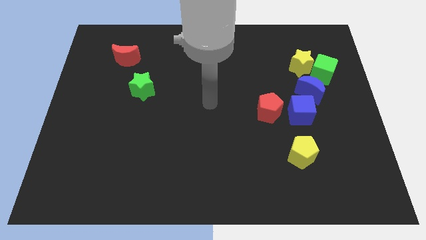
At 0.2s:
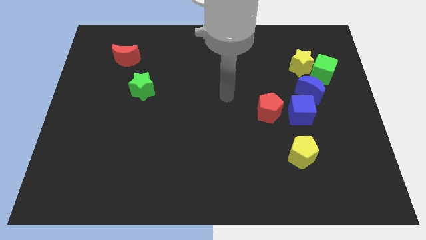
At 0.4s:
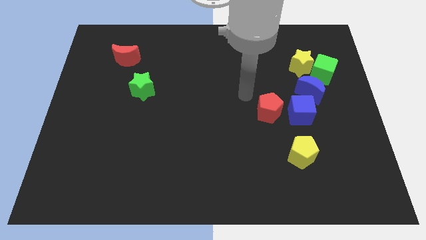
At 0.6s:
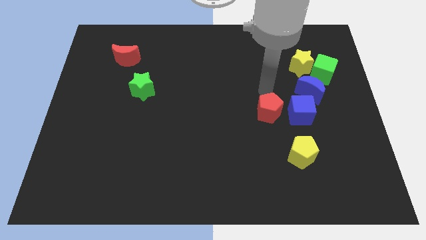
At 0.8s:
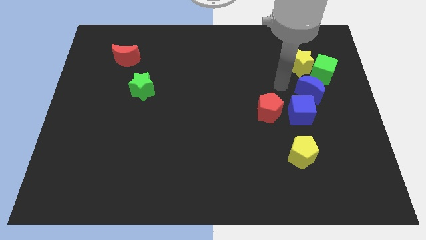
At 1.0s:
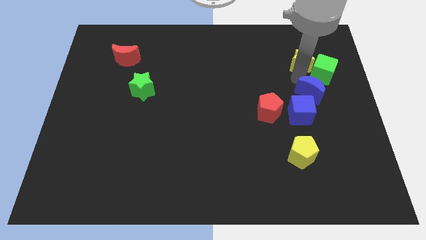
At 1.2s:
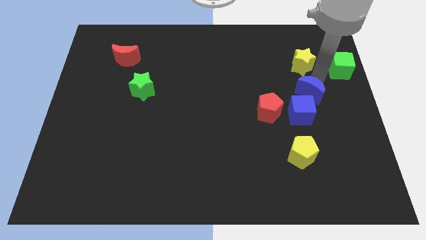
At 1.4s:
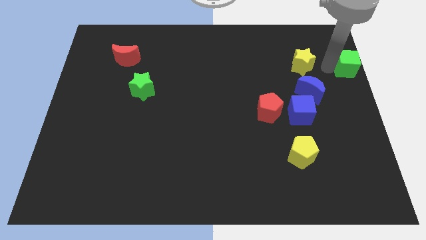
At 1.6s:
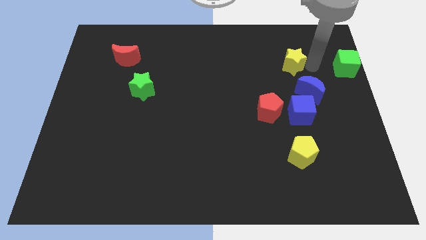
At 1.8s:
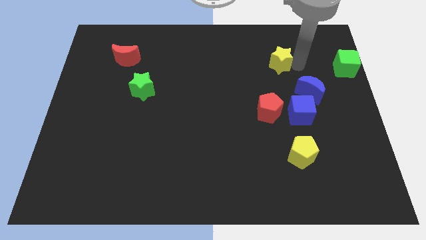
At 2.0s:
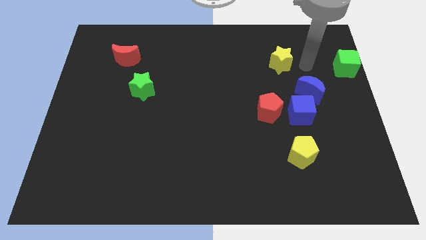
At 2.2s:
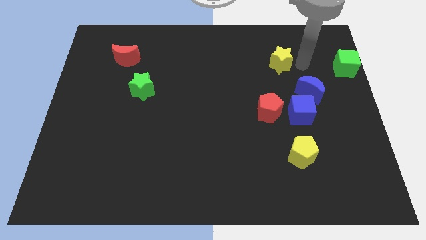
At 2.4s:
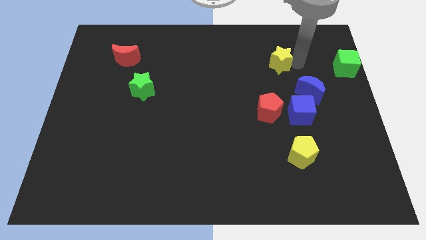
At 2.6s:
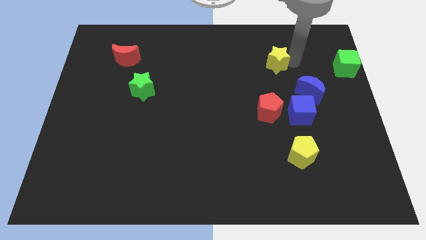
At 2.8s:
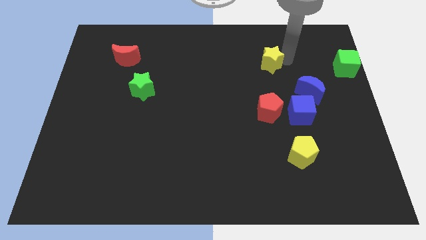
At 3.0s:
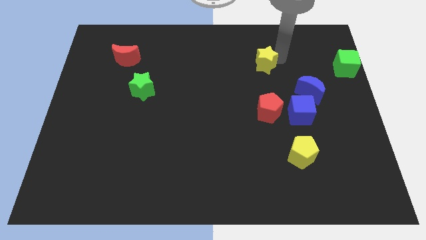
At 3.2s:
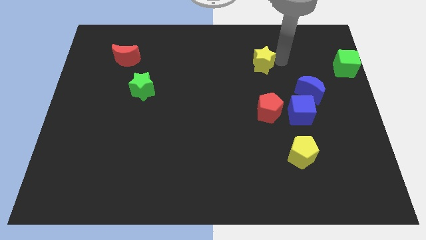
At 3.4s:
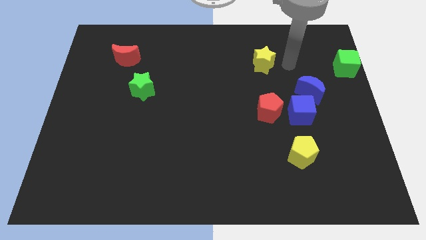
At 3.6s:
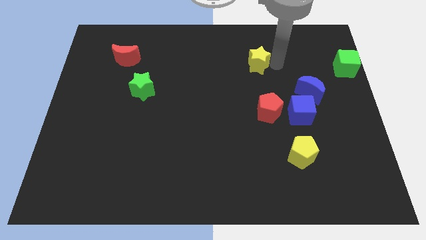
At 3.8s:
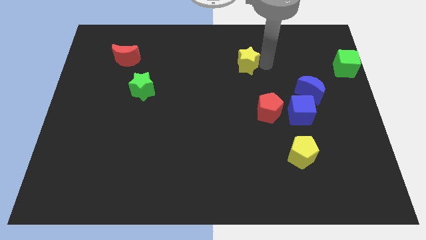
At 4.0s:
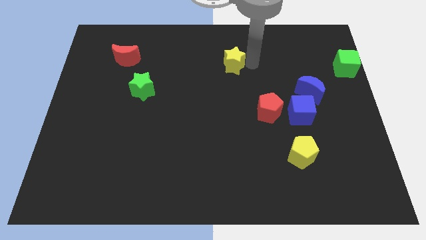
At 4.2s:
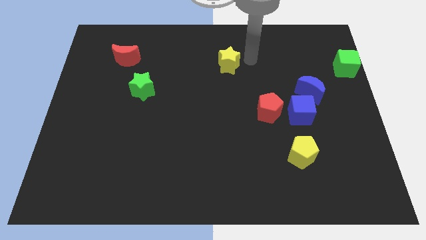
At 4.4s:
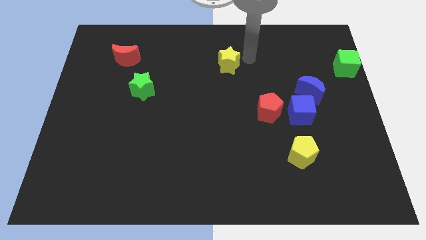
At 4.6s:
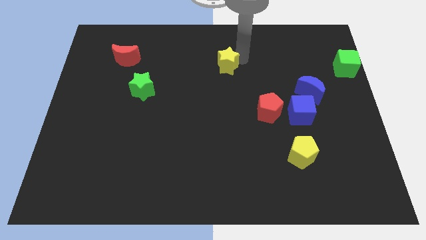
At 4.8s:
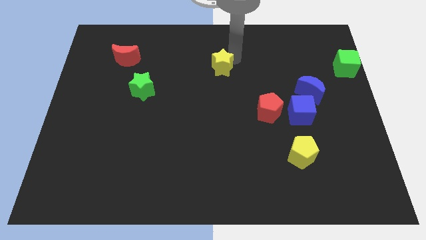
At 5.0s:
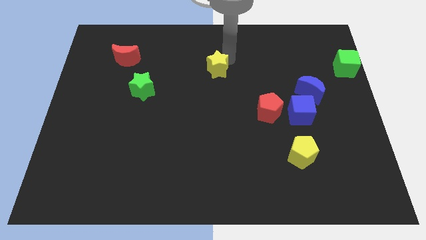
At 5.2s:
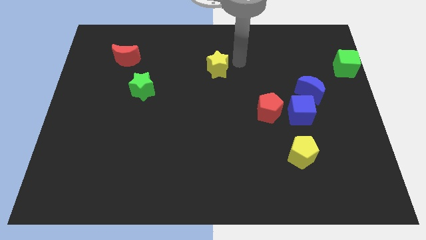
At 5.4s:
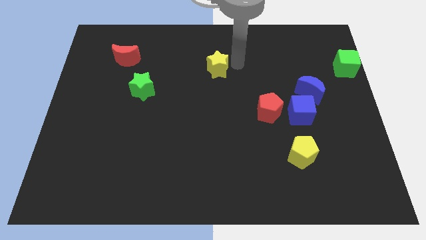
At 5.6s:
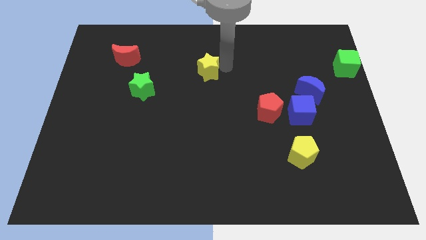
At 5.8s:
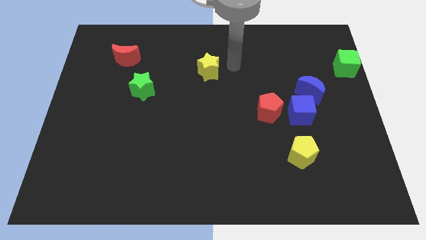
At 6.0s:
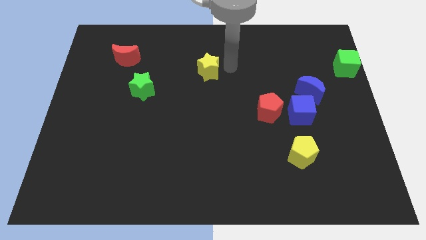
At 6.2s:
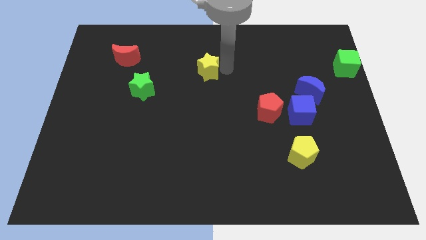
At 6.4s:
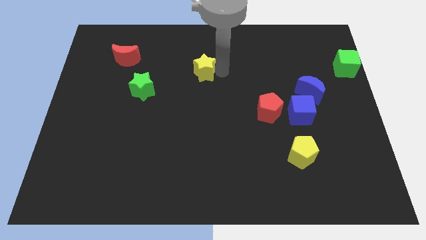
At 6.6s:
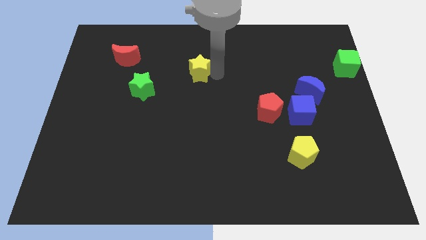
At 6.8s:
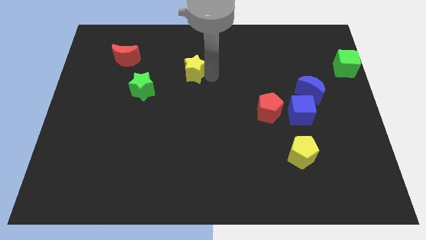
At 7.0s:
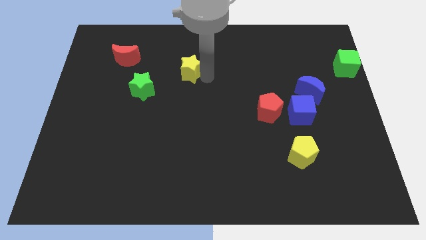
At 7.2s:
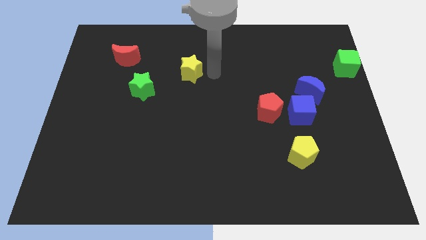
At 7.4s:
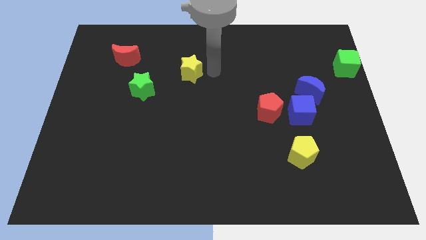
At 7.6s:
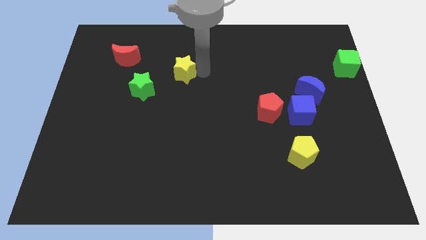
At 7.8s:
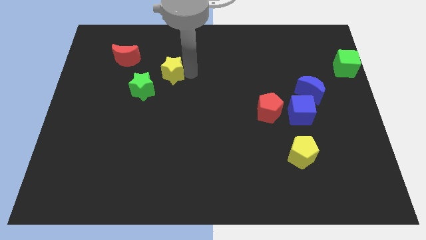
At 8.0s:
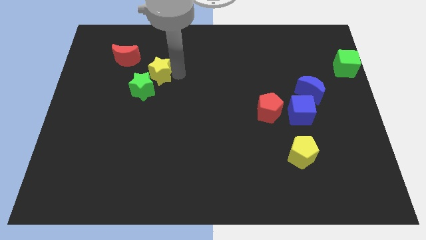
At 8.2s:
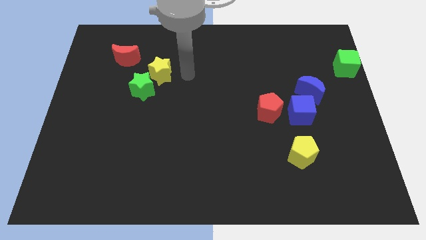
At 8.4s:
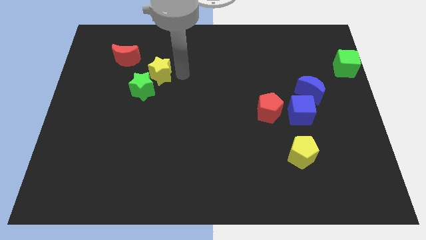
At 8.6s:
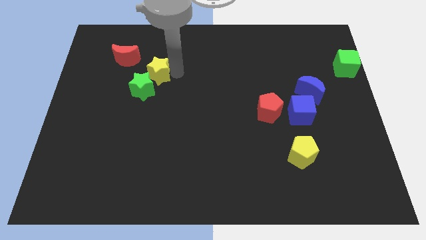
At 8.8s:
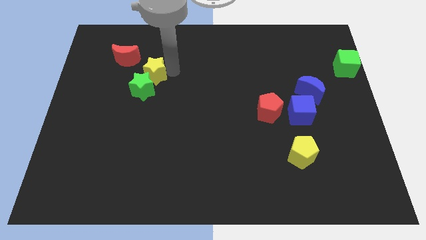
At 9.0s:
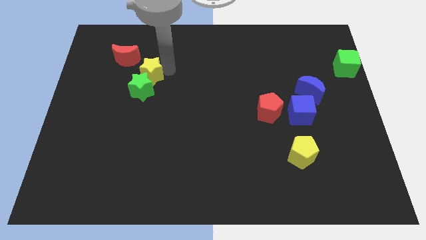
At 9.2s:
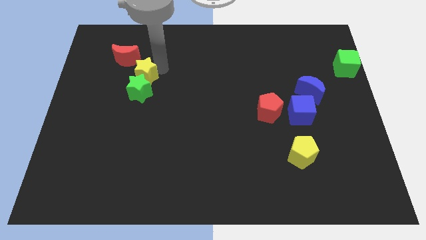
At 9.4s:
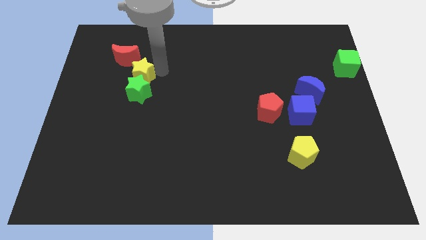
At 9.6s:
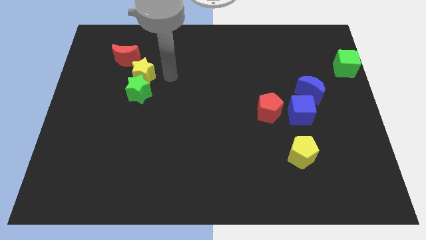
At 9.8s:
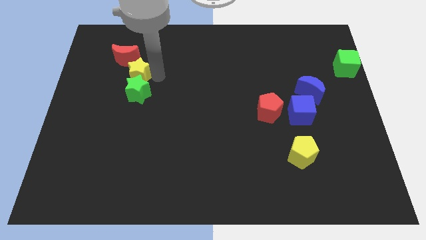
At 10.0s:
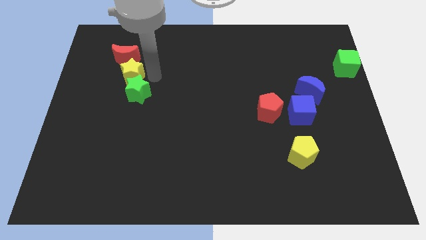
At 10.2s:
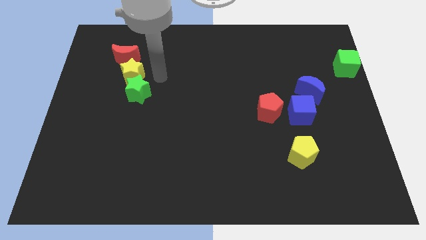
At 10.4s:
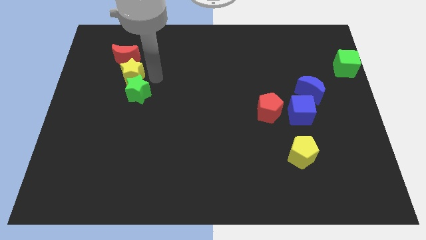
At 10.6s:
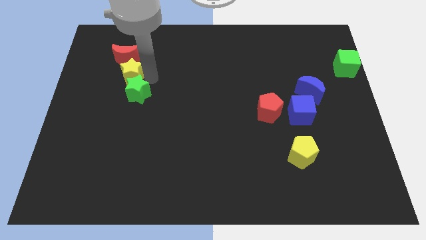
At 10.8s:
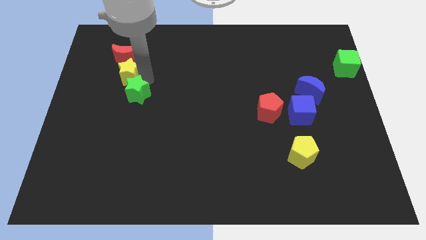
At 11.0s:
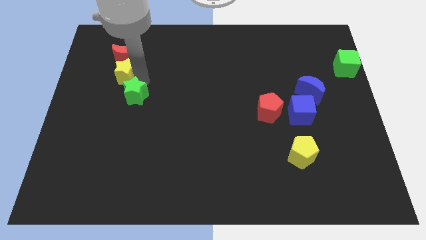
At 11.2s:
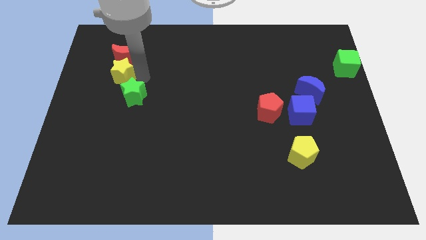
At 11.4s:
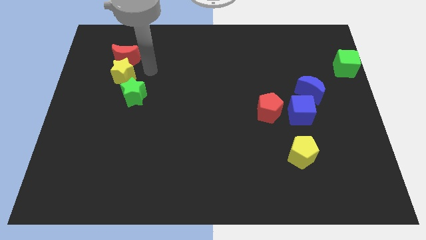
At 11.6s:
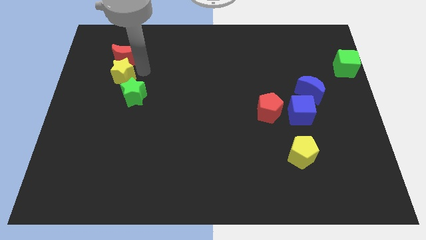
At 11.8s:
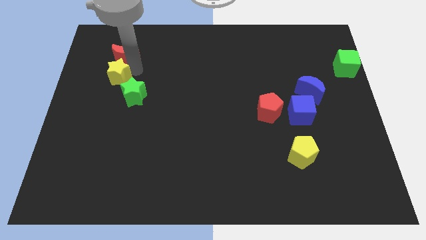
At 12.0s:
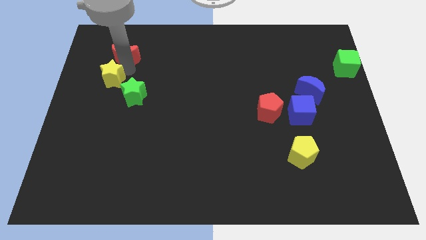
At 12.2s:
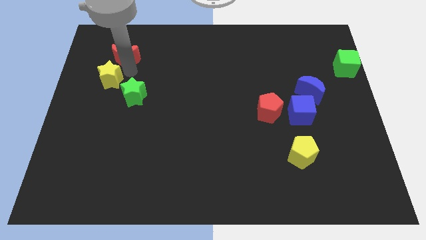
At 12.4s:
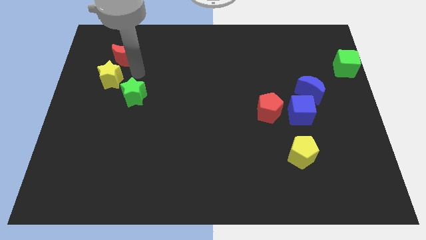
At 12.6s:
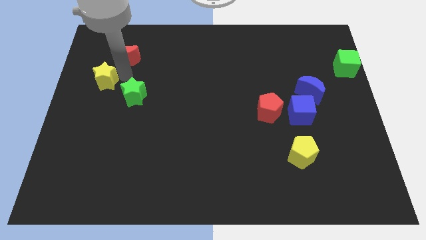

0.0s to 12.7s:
slide the yellow star to the center left
